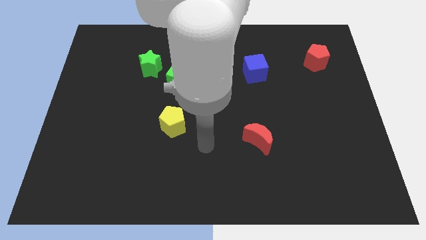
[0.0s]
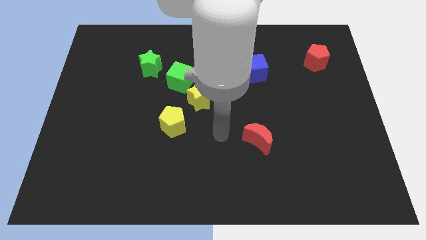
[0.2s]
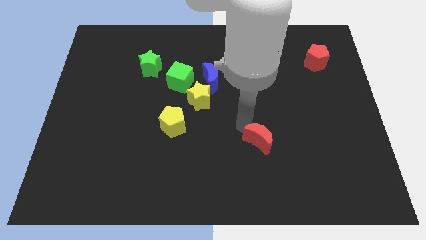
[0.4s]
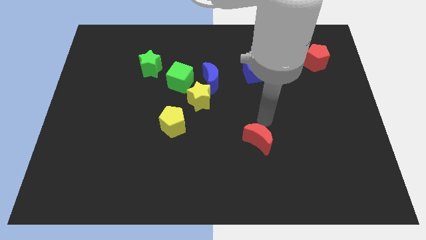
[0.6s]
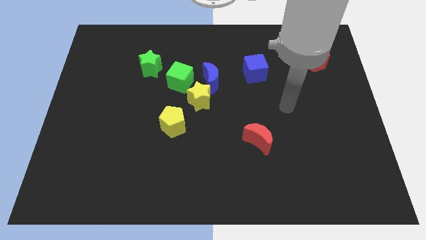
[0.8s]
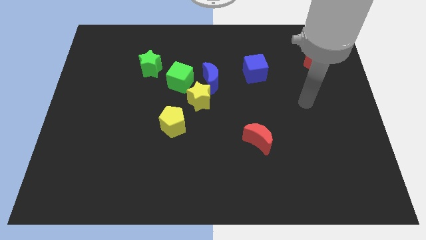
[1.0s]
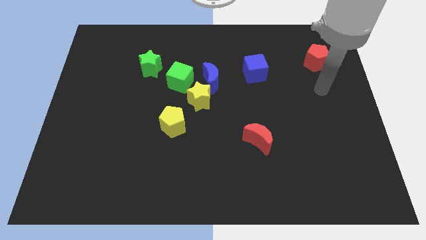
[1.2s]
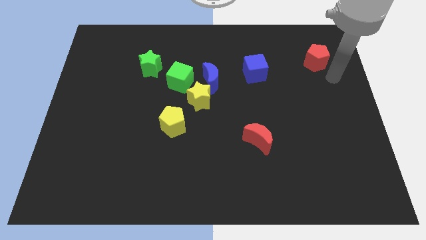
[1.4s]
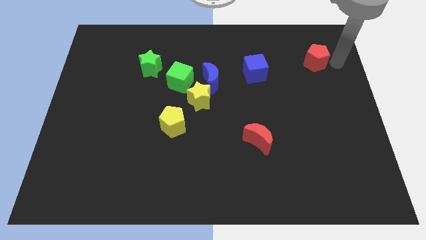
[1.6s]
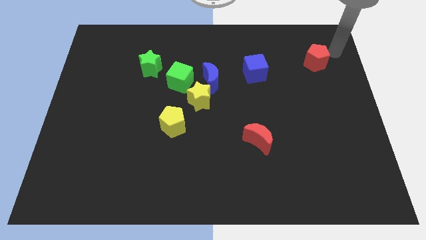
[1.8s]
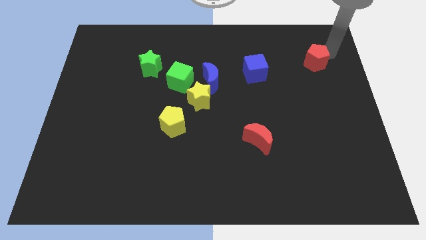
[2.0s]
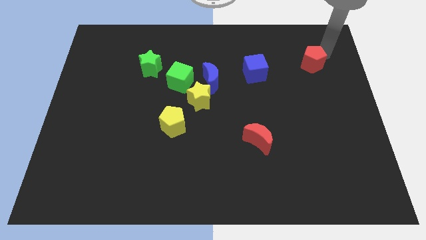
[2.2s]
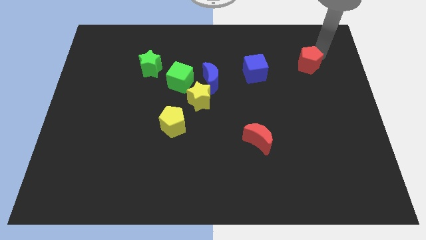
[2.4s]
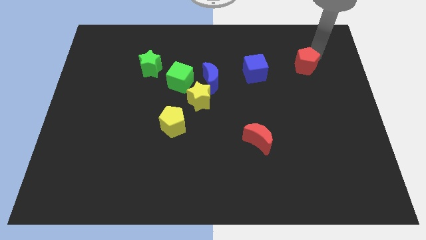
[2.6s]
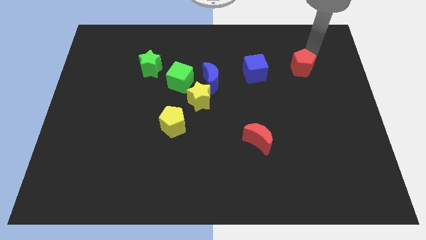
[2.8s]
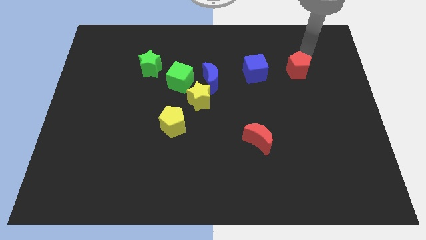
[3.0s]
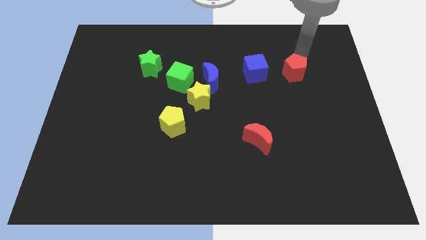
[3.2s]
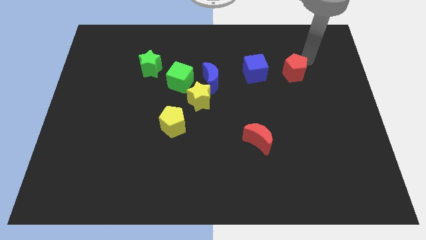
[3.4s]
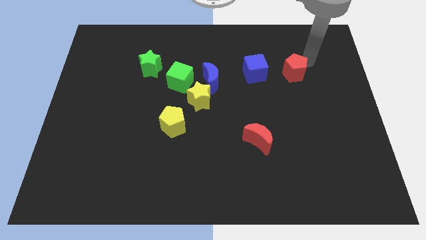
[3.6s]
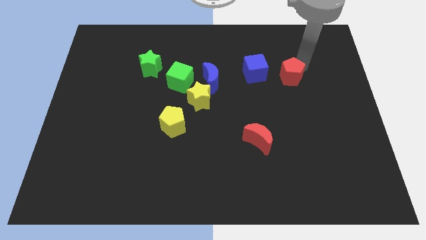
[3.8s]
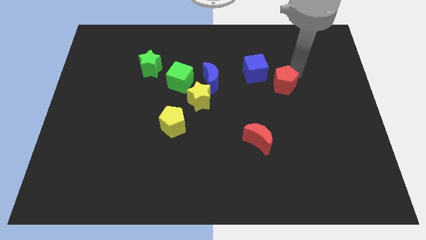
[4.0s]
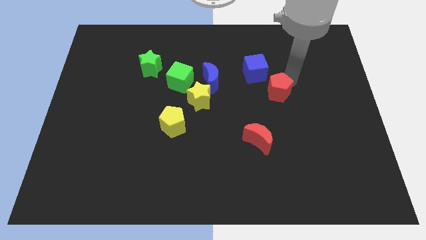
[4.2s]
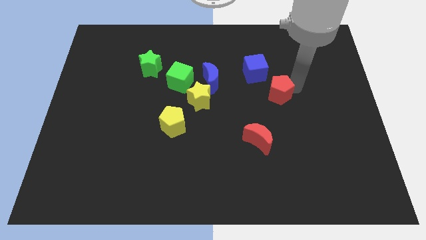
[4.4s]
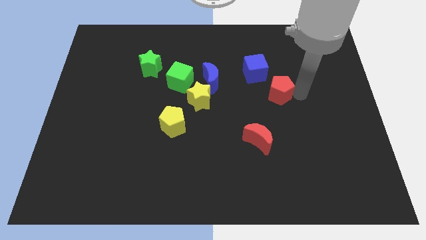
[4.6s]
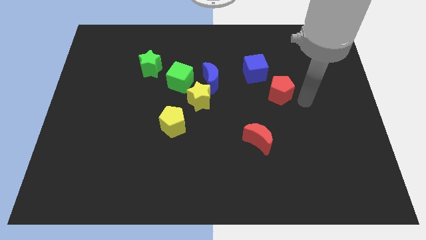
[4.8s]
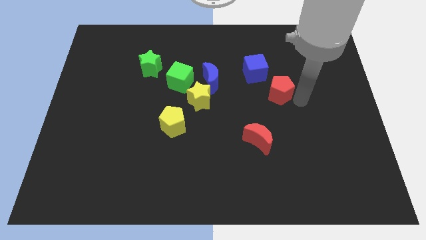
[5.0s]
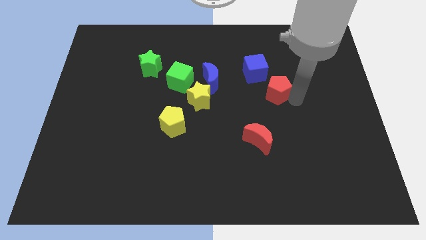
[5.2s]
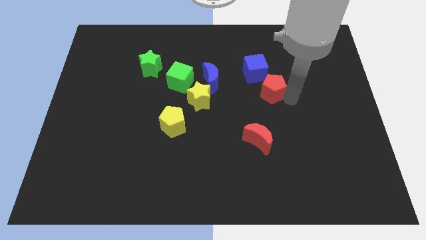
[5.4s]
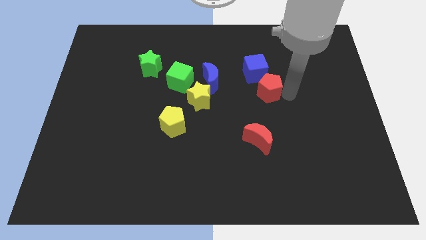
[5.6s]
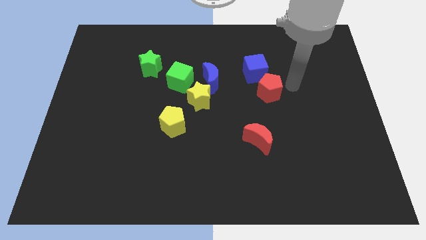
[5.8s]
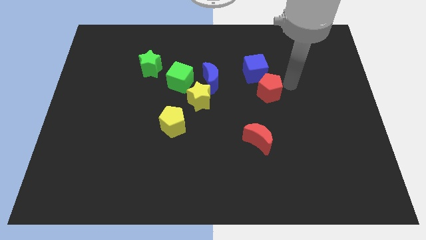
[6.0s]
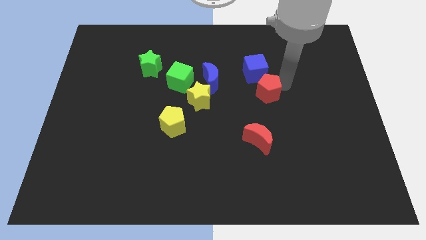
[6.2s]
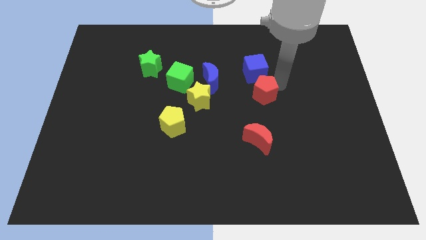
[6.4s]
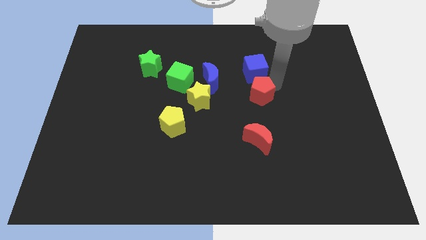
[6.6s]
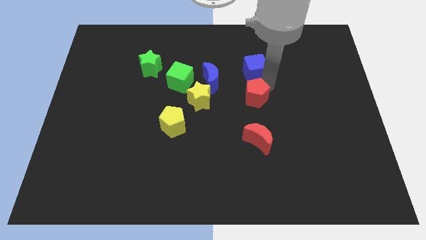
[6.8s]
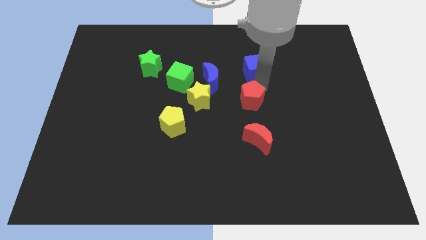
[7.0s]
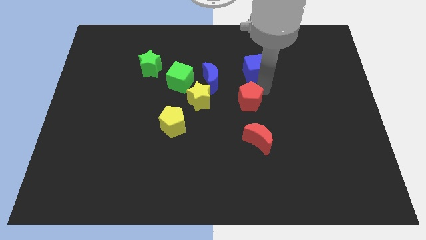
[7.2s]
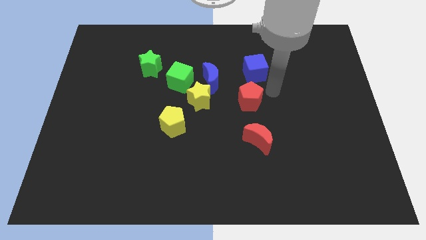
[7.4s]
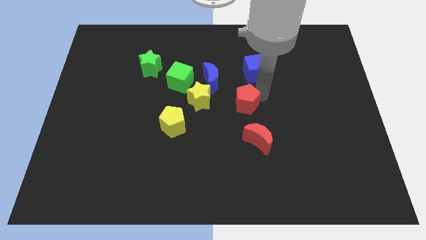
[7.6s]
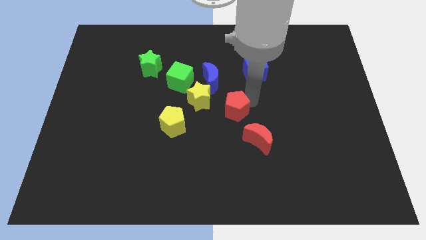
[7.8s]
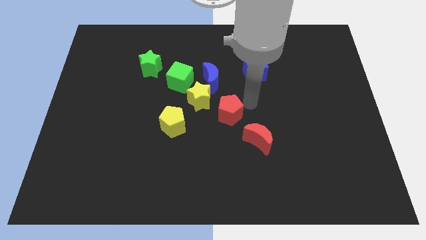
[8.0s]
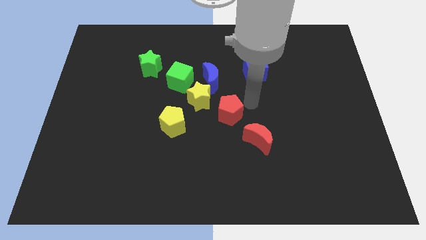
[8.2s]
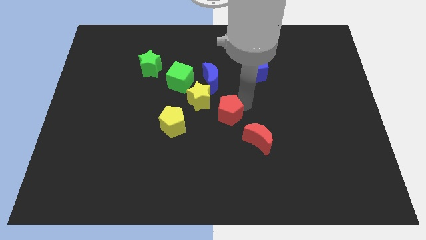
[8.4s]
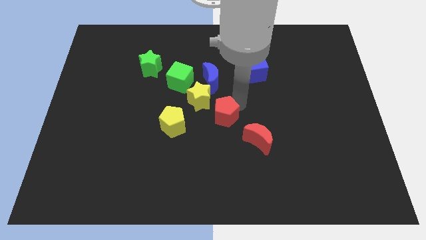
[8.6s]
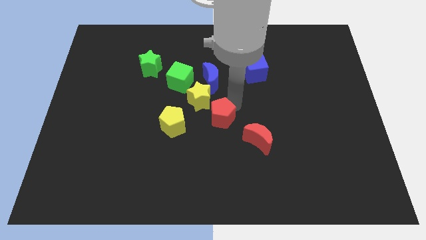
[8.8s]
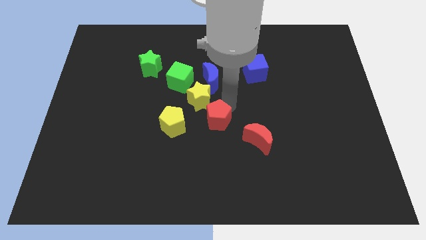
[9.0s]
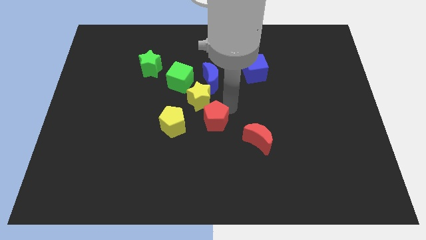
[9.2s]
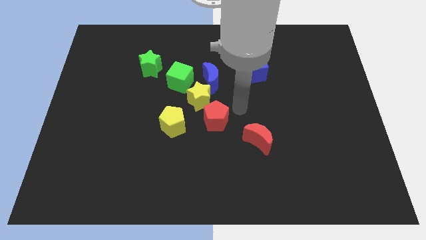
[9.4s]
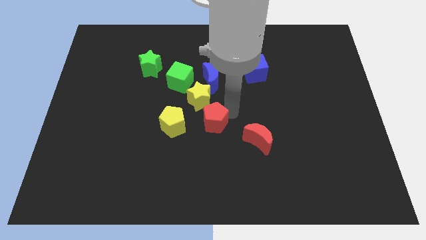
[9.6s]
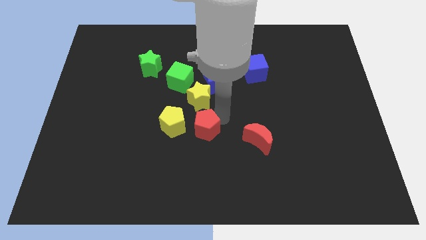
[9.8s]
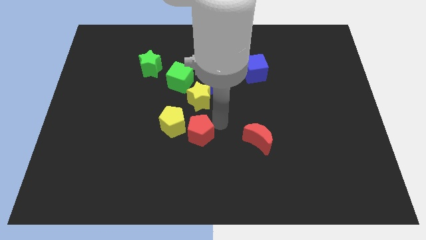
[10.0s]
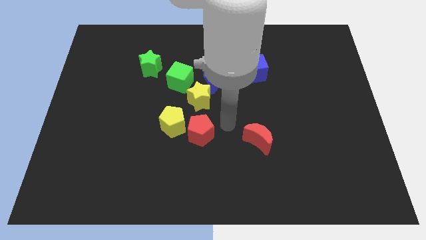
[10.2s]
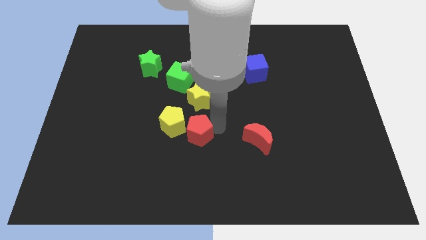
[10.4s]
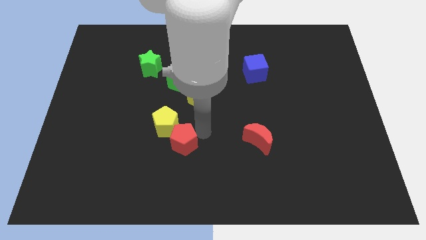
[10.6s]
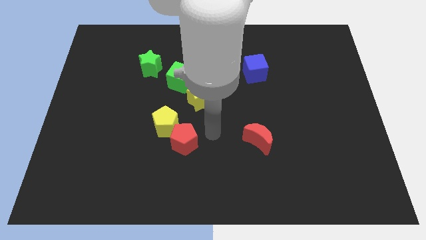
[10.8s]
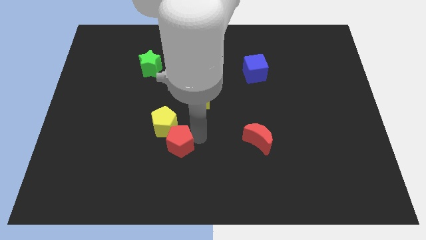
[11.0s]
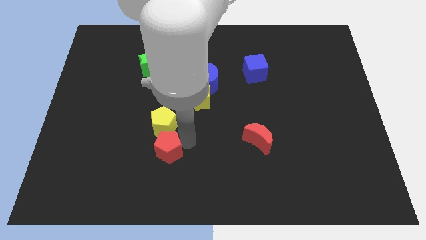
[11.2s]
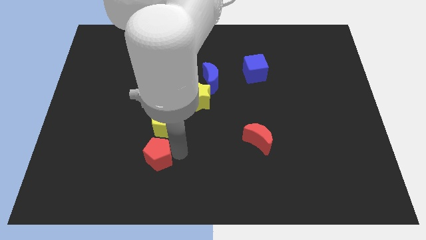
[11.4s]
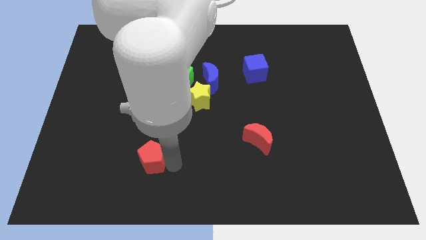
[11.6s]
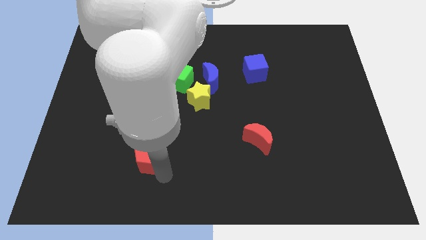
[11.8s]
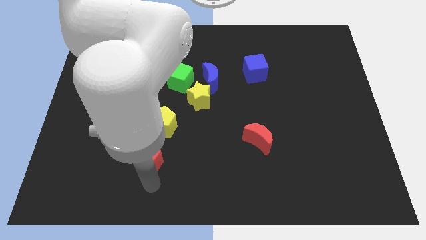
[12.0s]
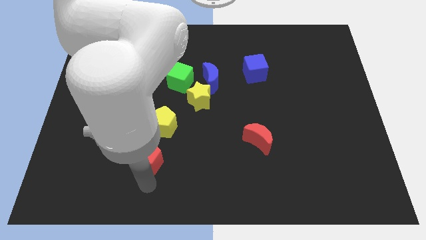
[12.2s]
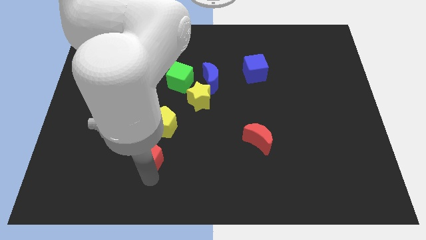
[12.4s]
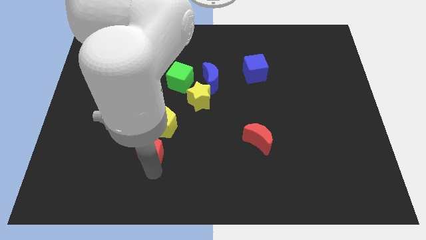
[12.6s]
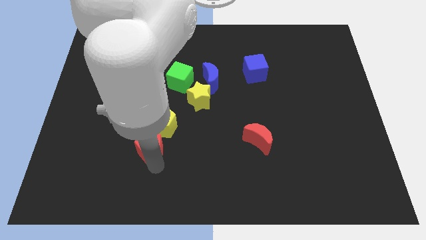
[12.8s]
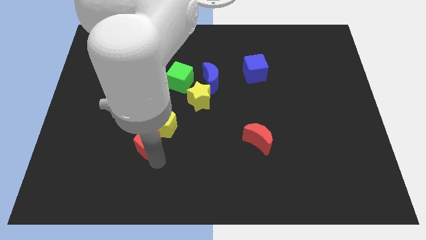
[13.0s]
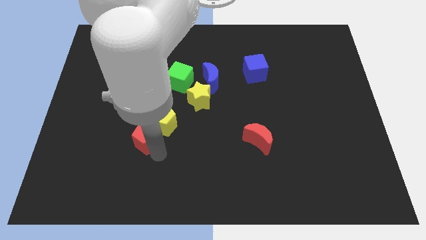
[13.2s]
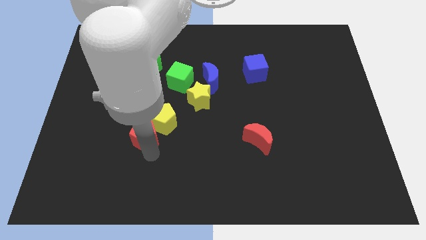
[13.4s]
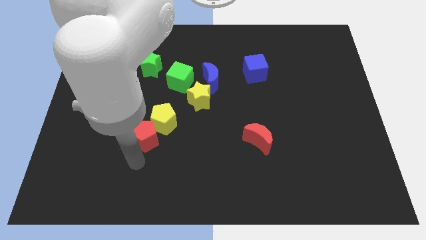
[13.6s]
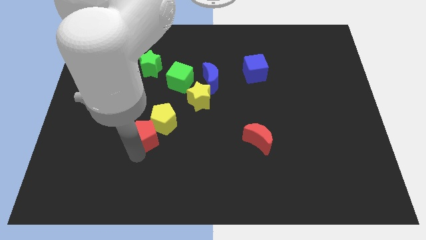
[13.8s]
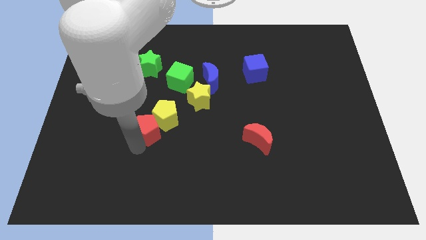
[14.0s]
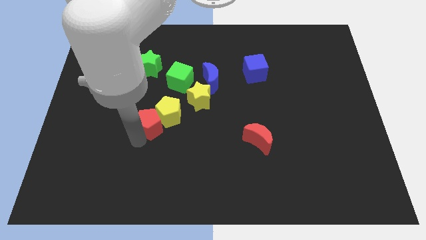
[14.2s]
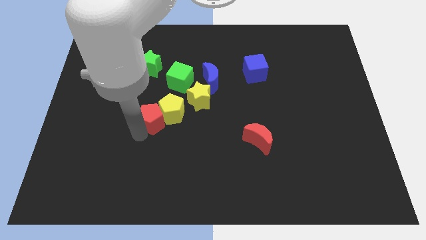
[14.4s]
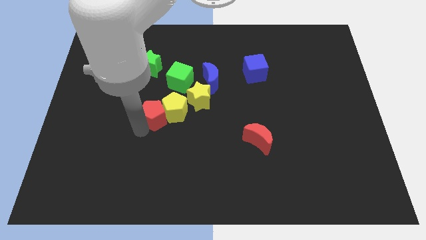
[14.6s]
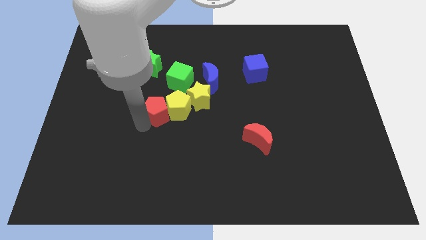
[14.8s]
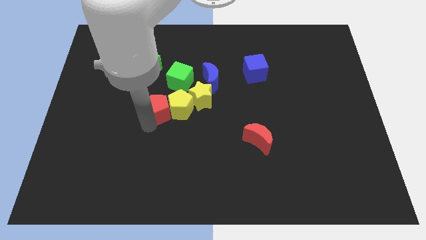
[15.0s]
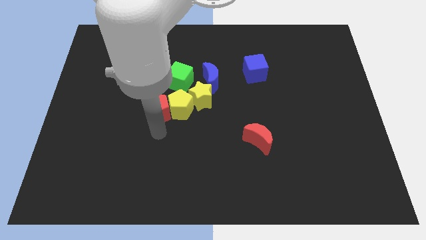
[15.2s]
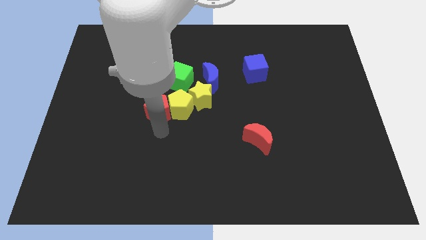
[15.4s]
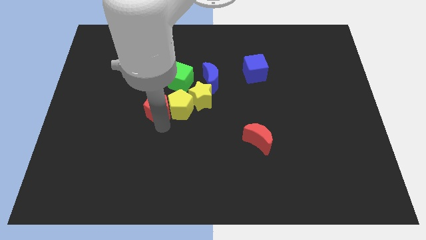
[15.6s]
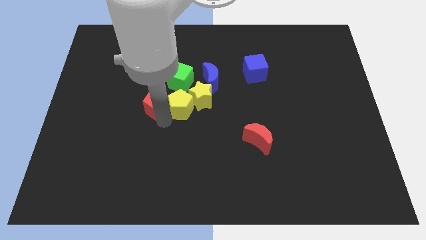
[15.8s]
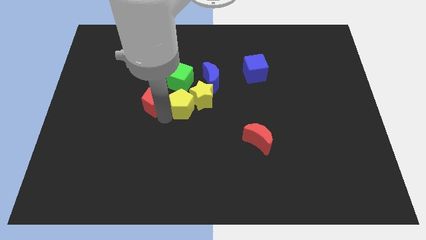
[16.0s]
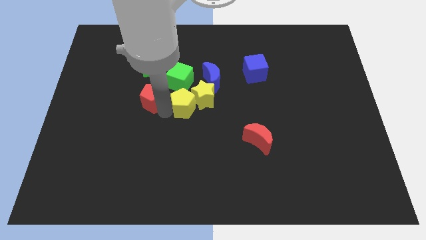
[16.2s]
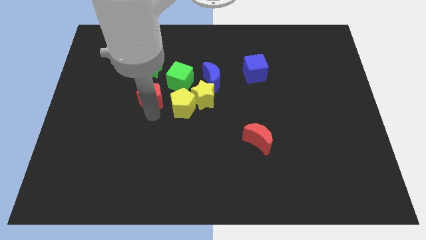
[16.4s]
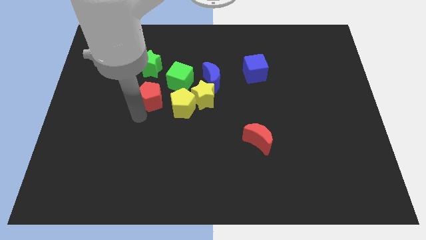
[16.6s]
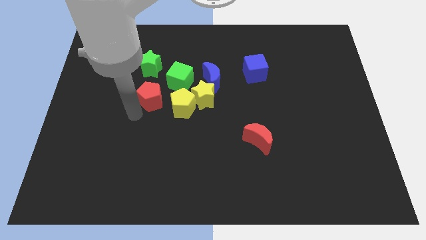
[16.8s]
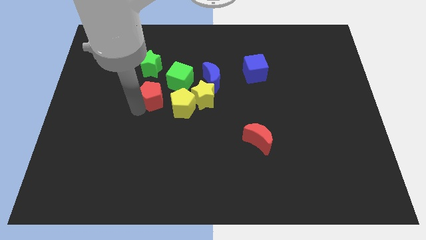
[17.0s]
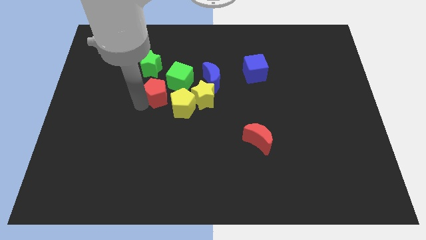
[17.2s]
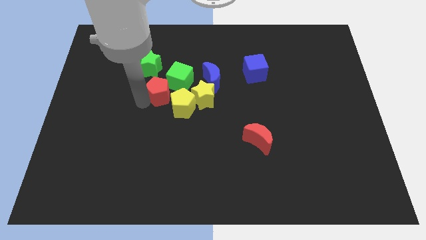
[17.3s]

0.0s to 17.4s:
slide the red pentagon to the left side of the blue moon
